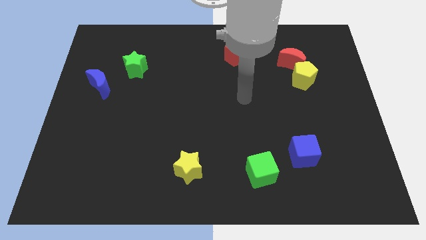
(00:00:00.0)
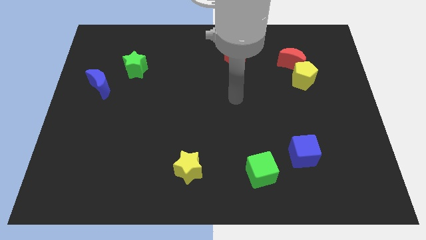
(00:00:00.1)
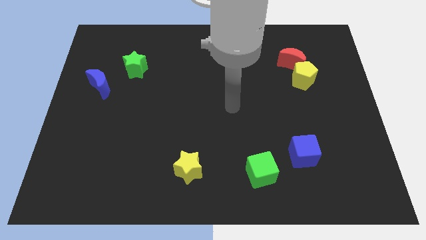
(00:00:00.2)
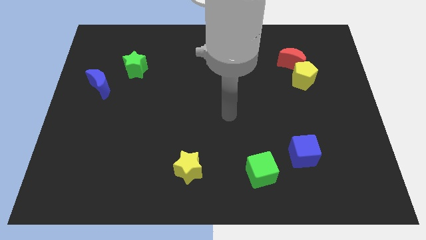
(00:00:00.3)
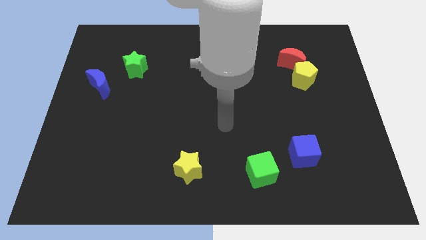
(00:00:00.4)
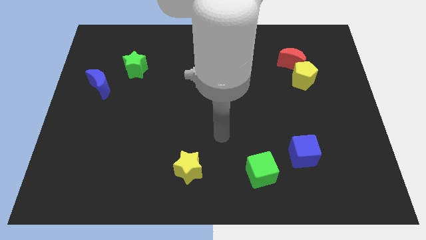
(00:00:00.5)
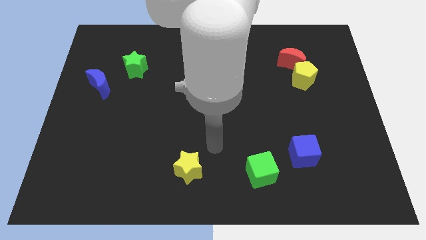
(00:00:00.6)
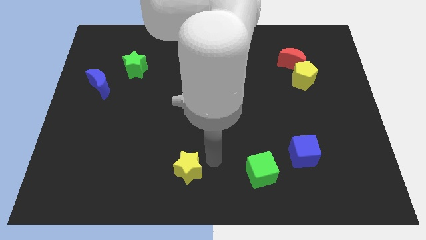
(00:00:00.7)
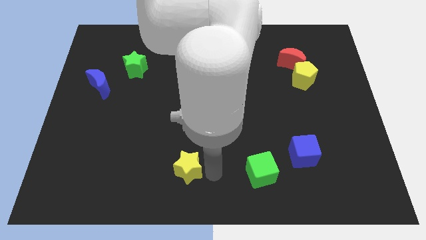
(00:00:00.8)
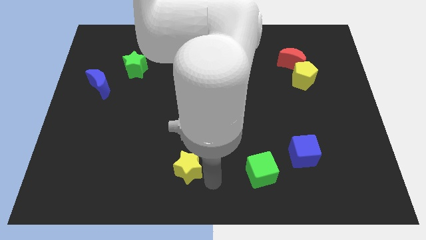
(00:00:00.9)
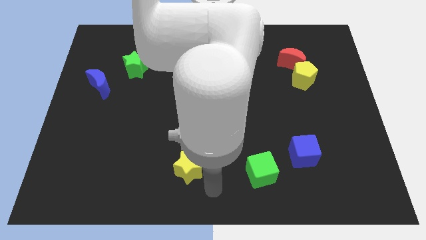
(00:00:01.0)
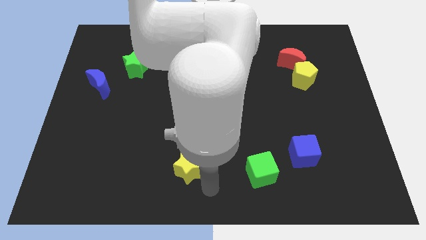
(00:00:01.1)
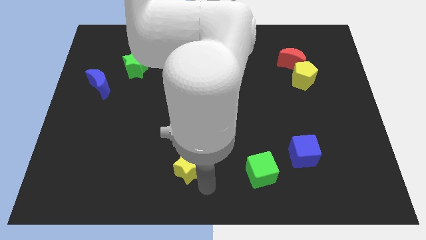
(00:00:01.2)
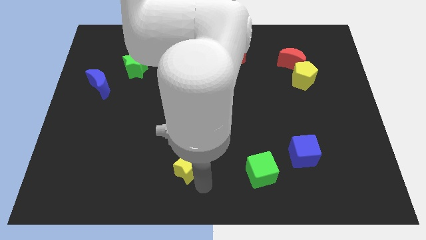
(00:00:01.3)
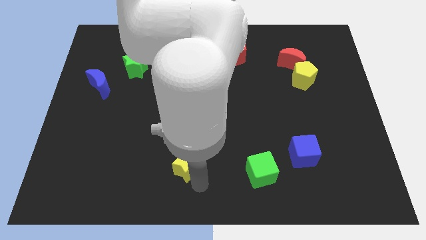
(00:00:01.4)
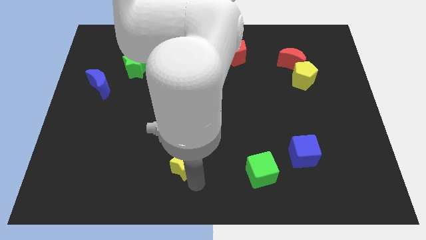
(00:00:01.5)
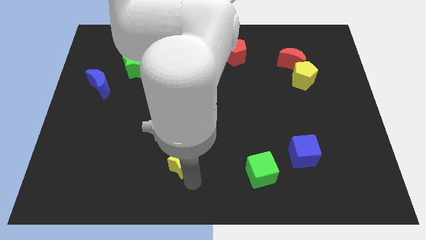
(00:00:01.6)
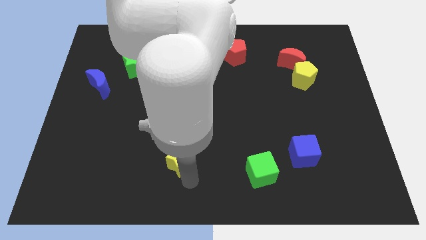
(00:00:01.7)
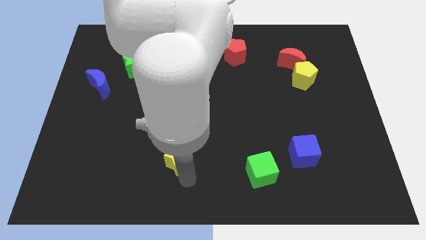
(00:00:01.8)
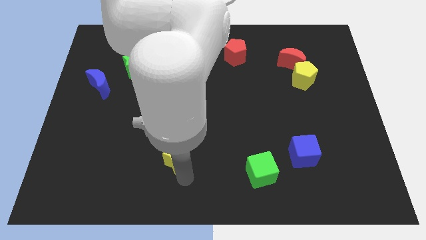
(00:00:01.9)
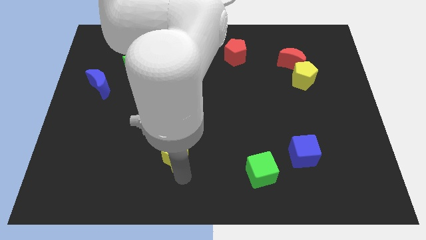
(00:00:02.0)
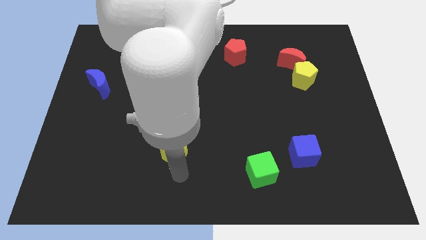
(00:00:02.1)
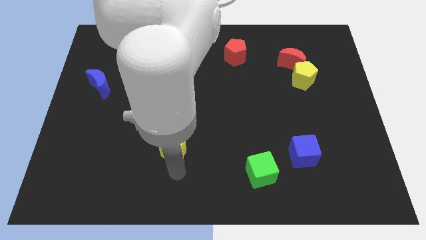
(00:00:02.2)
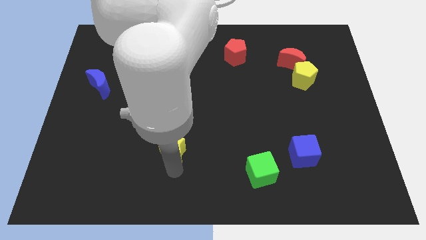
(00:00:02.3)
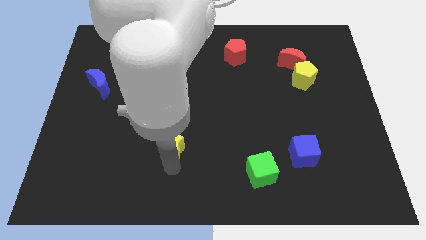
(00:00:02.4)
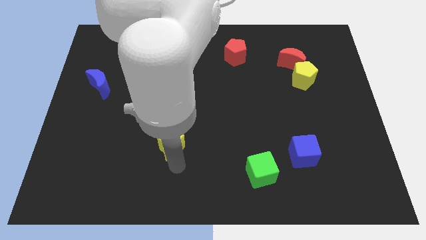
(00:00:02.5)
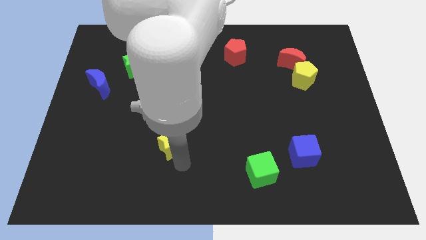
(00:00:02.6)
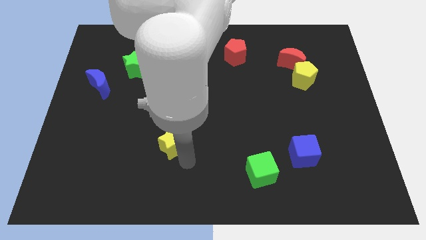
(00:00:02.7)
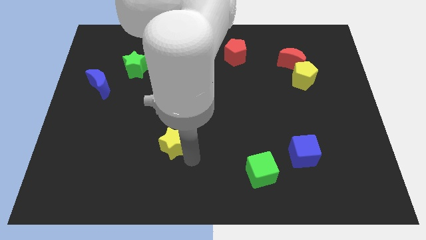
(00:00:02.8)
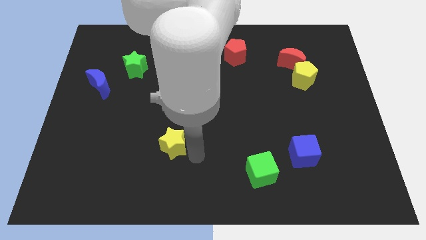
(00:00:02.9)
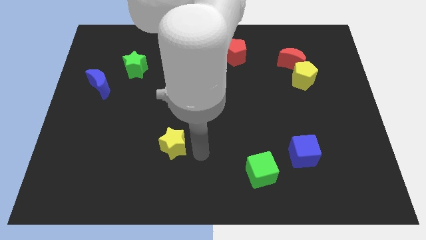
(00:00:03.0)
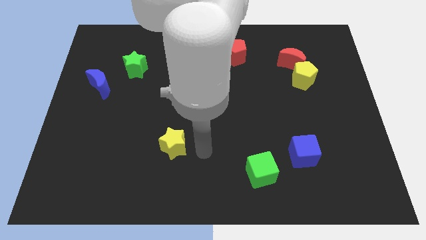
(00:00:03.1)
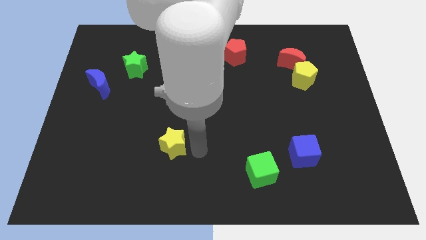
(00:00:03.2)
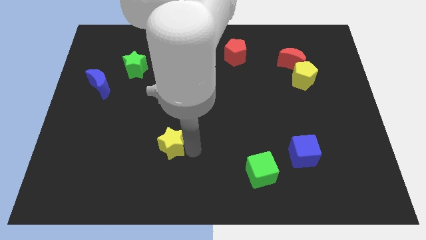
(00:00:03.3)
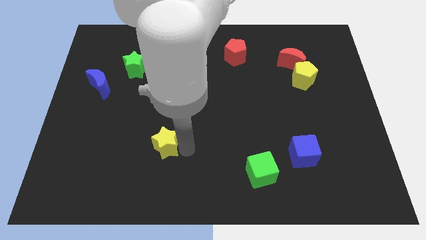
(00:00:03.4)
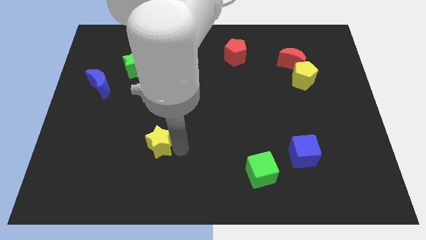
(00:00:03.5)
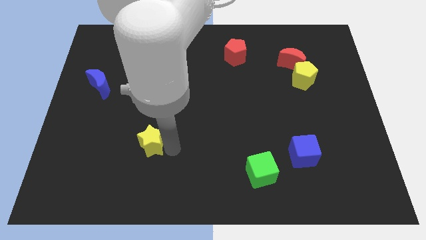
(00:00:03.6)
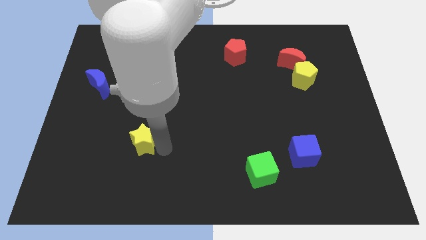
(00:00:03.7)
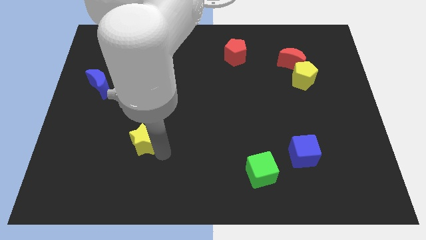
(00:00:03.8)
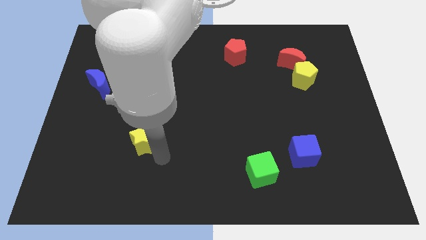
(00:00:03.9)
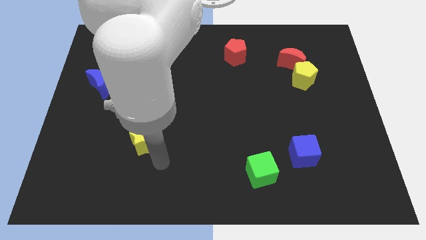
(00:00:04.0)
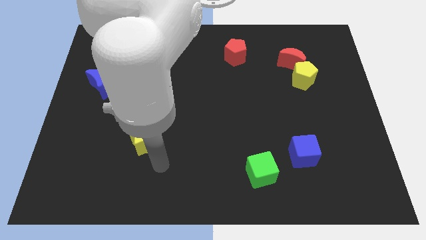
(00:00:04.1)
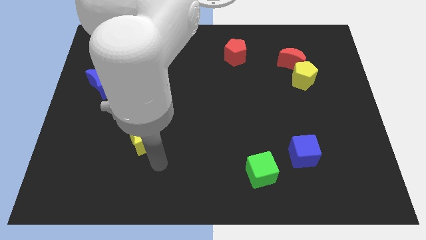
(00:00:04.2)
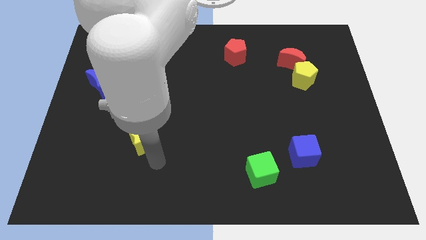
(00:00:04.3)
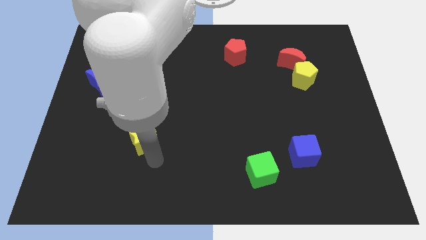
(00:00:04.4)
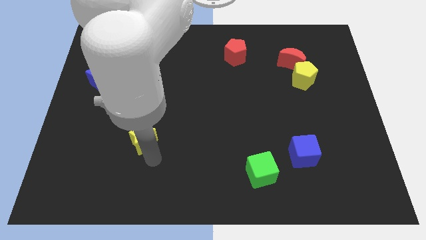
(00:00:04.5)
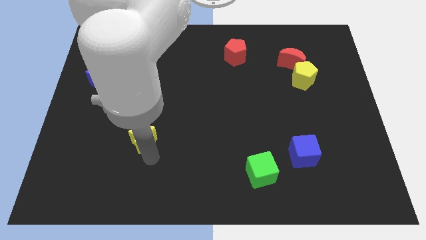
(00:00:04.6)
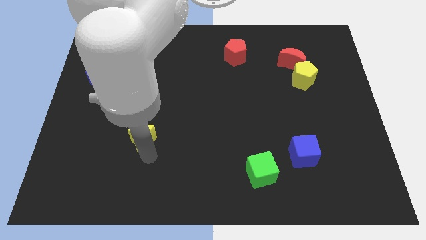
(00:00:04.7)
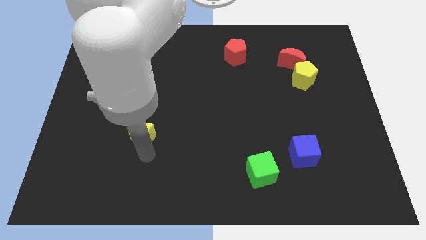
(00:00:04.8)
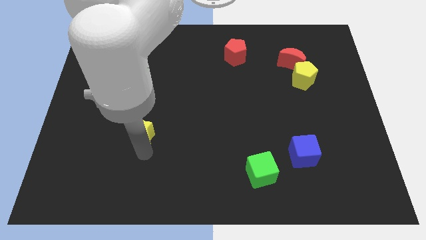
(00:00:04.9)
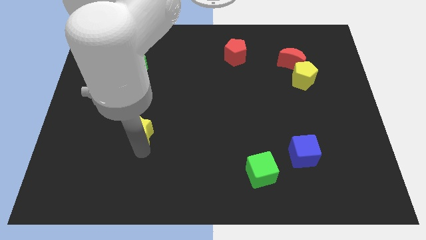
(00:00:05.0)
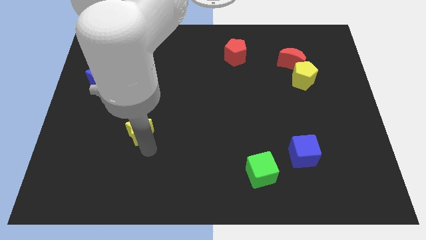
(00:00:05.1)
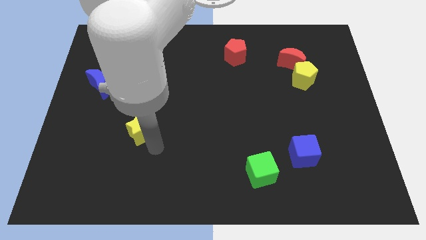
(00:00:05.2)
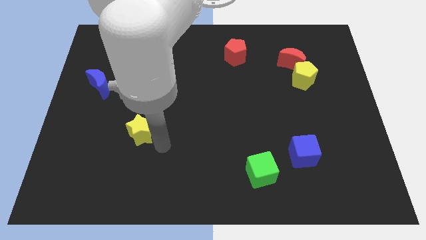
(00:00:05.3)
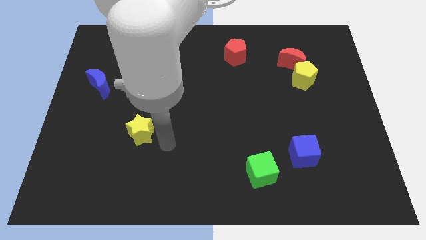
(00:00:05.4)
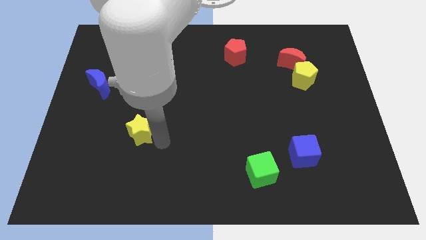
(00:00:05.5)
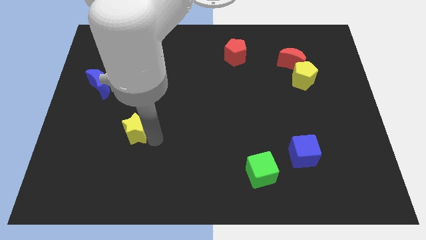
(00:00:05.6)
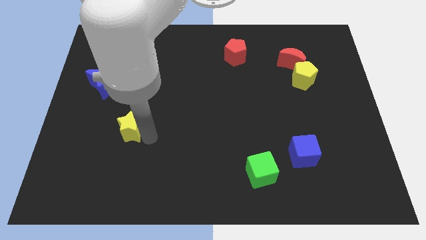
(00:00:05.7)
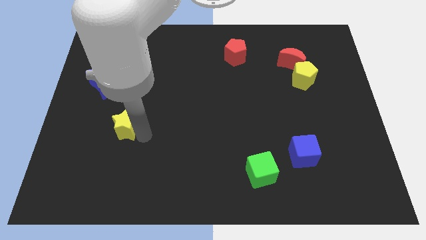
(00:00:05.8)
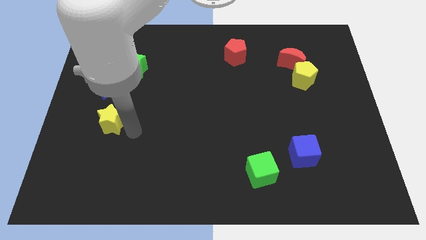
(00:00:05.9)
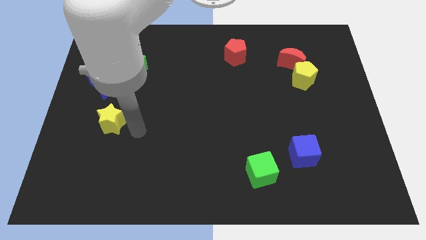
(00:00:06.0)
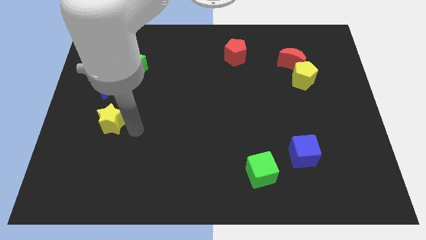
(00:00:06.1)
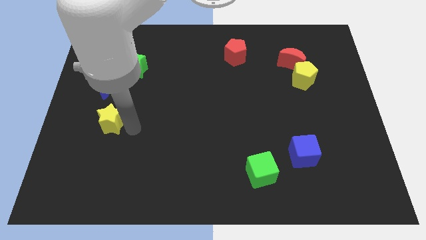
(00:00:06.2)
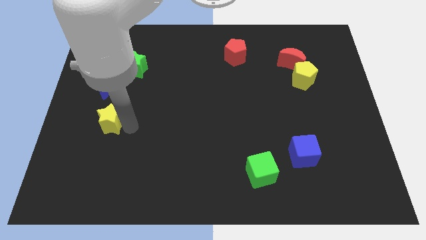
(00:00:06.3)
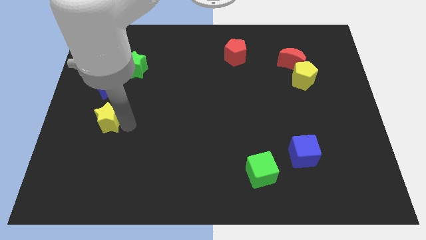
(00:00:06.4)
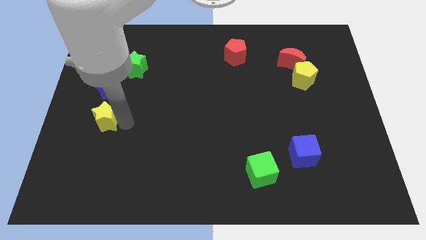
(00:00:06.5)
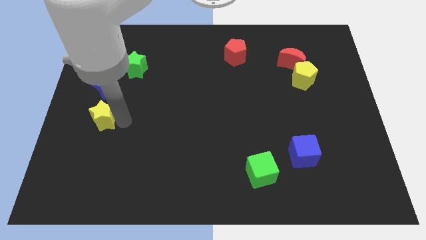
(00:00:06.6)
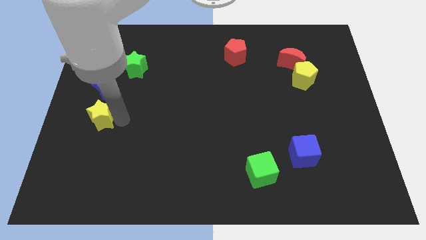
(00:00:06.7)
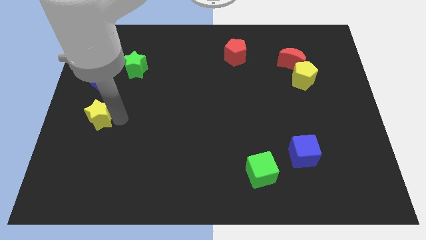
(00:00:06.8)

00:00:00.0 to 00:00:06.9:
put the yellow star to the center left
